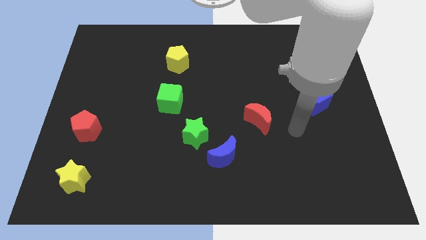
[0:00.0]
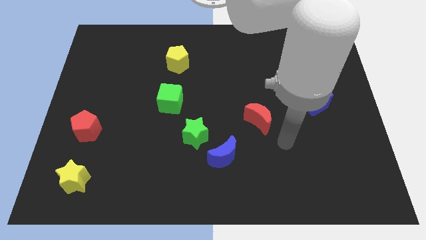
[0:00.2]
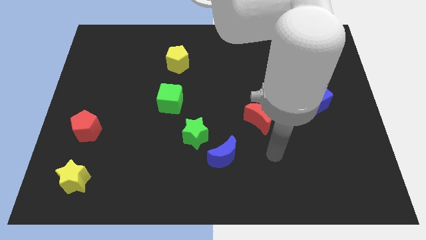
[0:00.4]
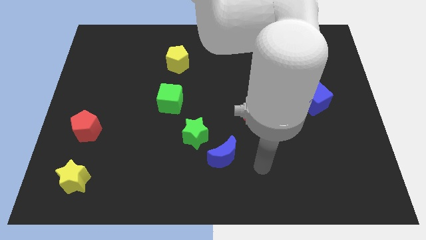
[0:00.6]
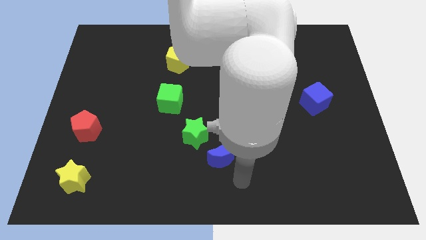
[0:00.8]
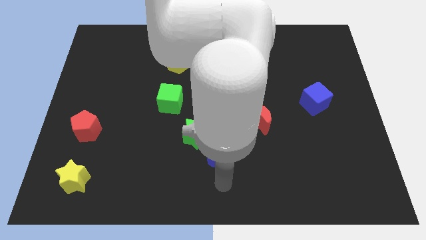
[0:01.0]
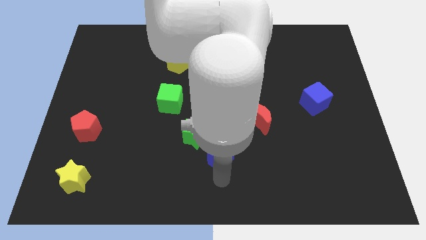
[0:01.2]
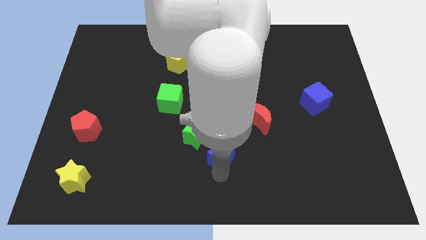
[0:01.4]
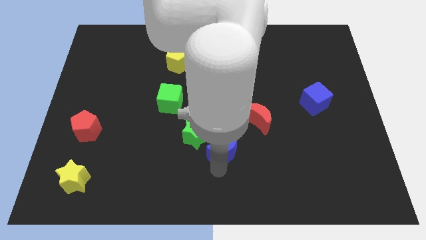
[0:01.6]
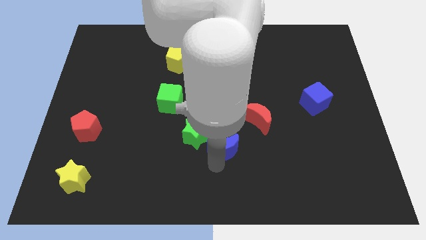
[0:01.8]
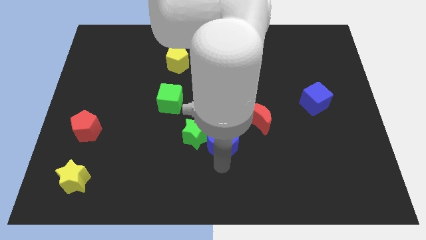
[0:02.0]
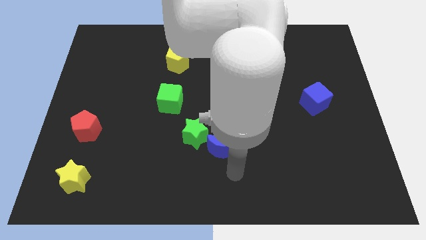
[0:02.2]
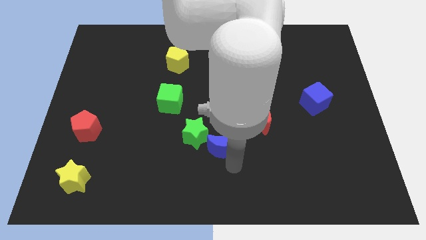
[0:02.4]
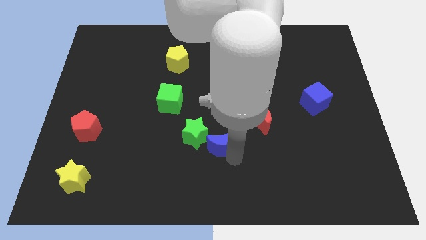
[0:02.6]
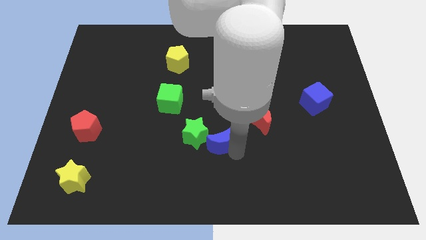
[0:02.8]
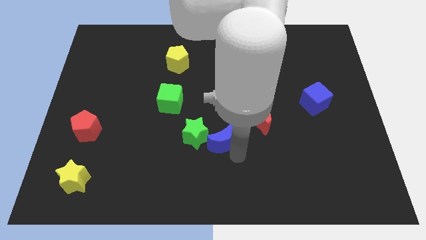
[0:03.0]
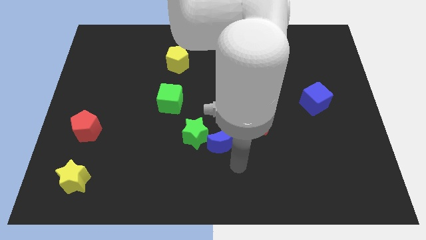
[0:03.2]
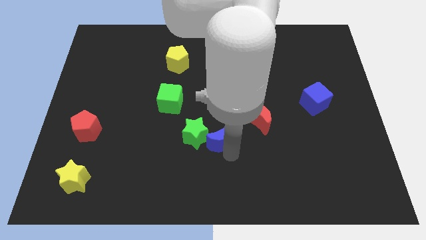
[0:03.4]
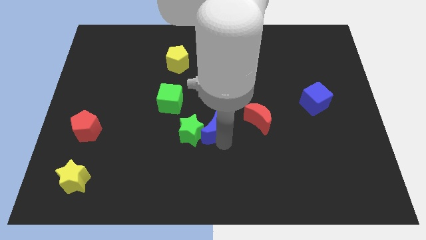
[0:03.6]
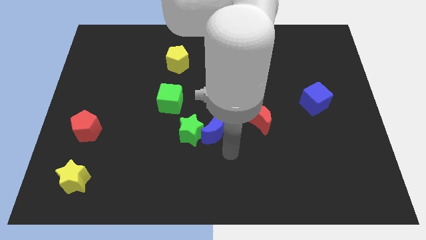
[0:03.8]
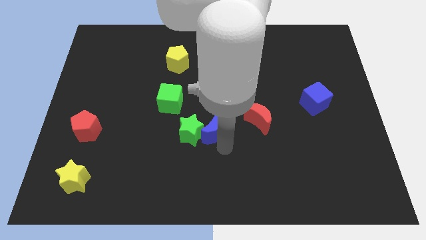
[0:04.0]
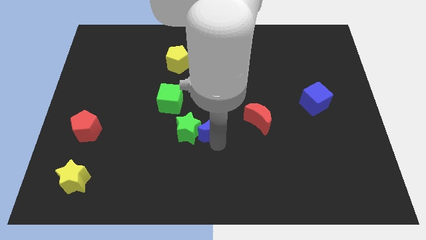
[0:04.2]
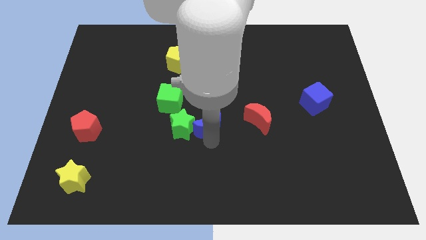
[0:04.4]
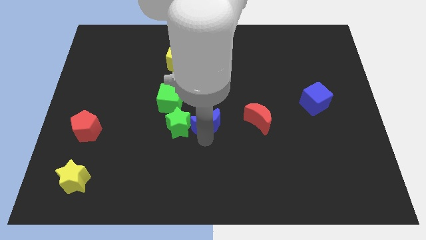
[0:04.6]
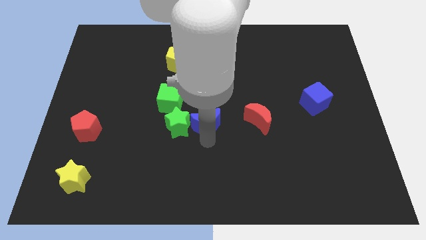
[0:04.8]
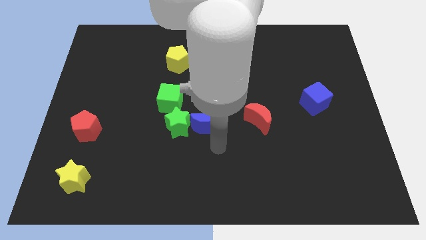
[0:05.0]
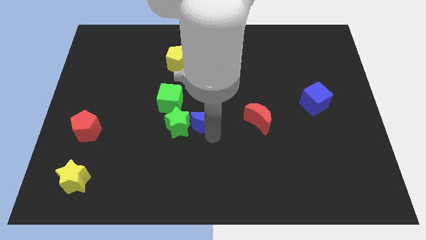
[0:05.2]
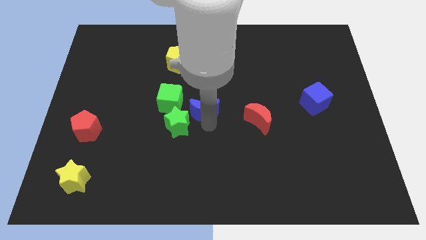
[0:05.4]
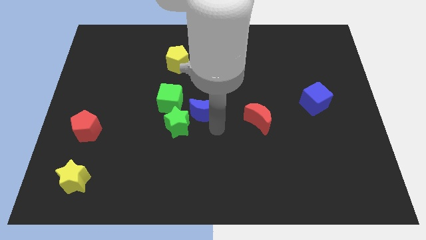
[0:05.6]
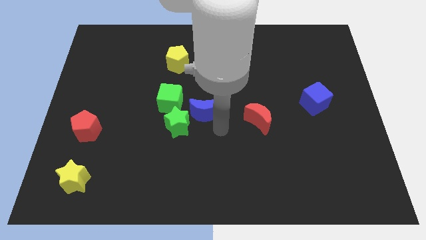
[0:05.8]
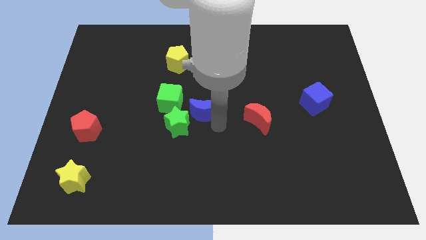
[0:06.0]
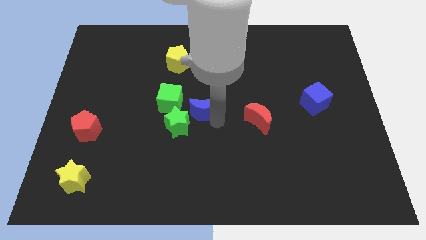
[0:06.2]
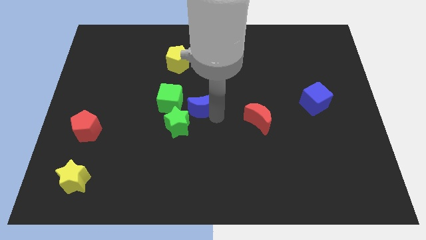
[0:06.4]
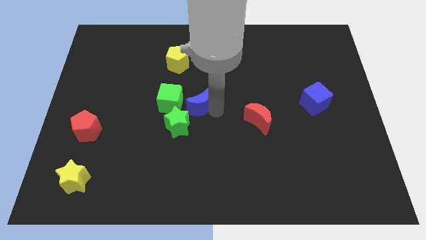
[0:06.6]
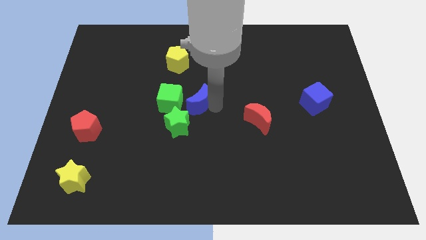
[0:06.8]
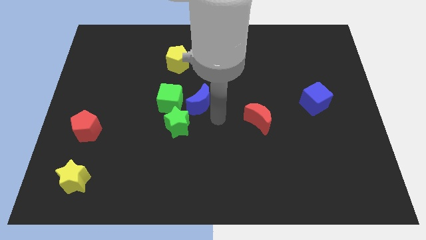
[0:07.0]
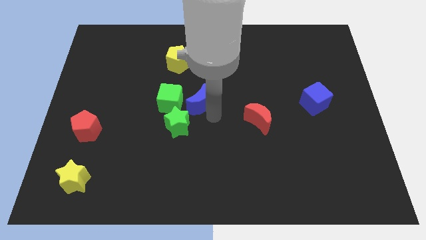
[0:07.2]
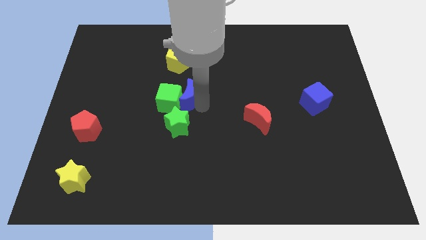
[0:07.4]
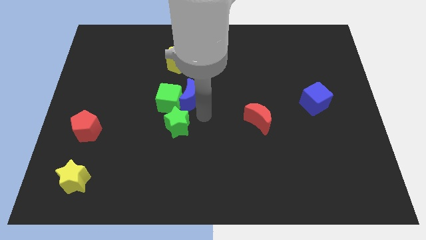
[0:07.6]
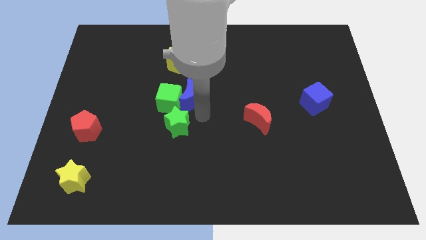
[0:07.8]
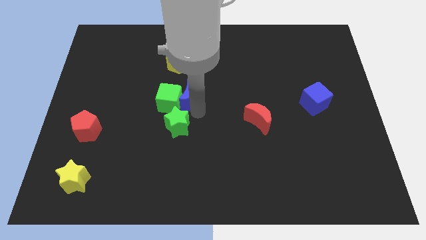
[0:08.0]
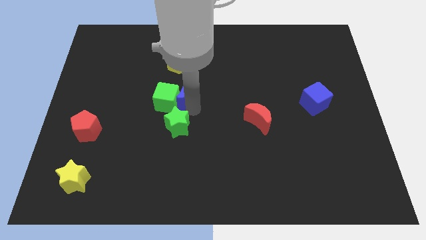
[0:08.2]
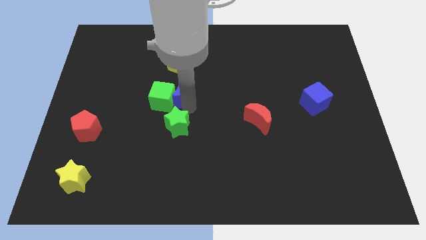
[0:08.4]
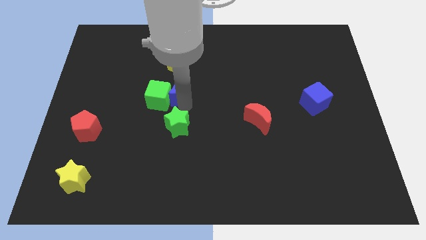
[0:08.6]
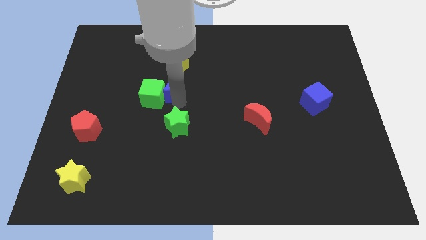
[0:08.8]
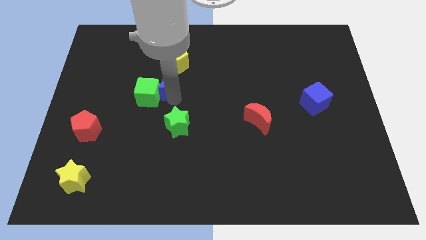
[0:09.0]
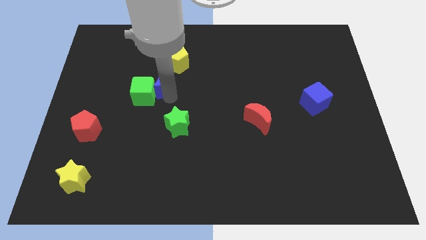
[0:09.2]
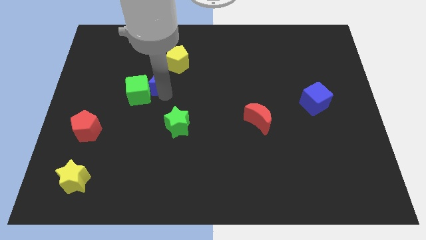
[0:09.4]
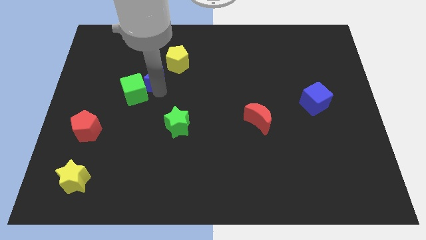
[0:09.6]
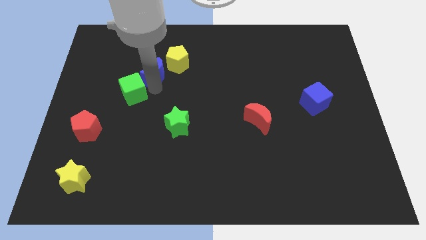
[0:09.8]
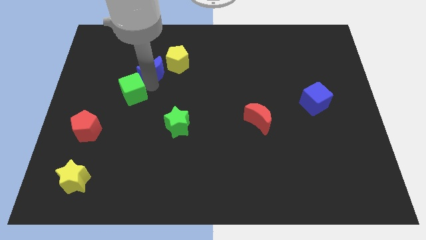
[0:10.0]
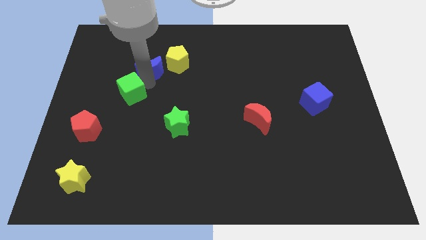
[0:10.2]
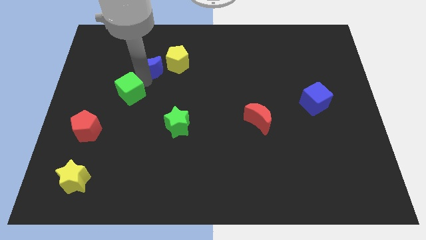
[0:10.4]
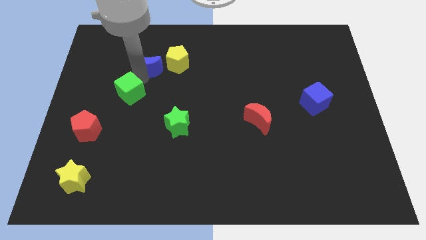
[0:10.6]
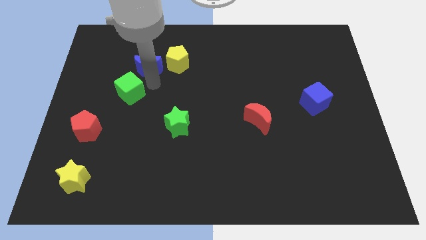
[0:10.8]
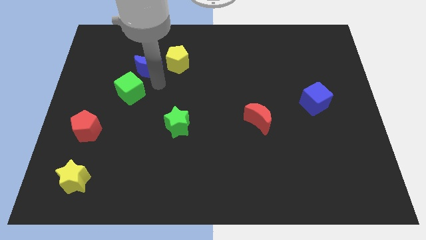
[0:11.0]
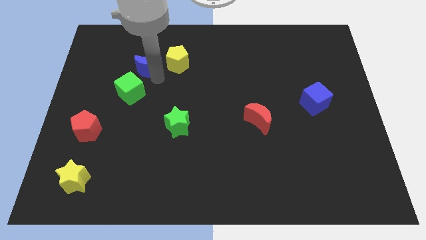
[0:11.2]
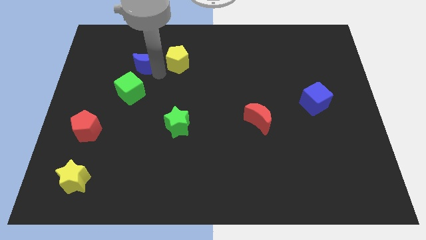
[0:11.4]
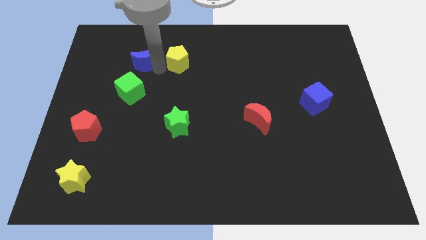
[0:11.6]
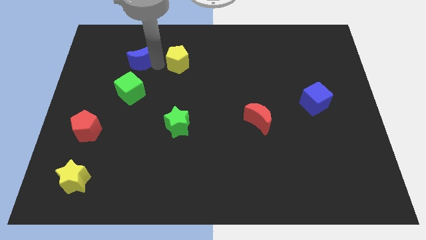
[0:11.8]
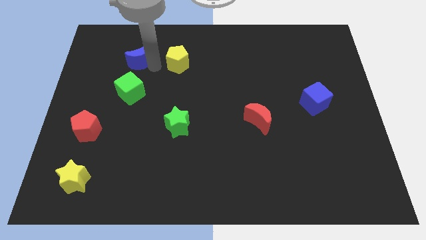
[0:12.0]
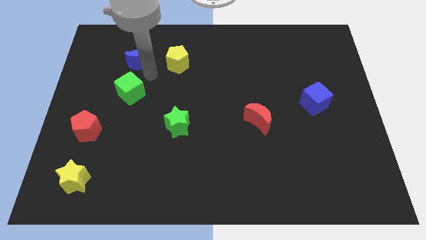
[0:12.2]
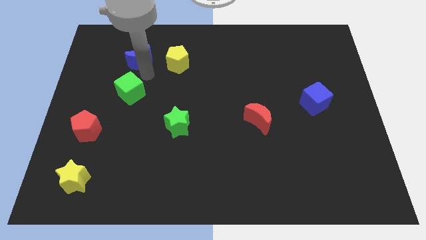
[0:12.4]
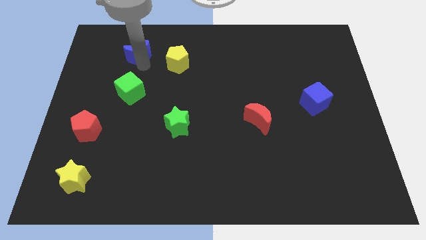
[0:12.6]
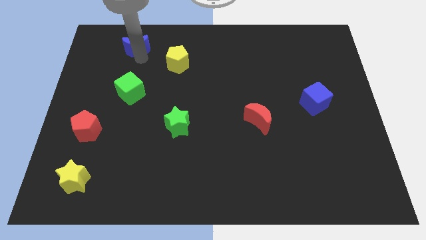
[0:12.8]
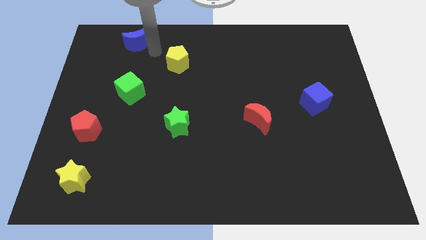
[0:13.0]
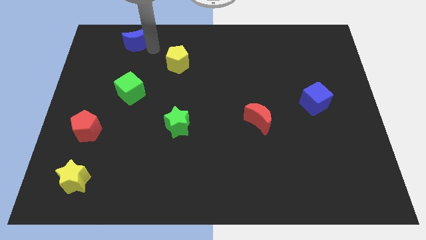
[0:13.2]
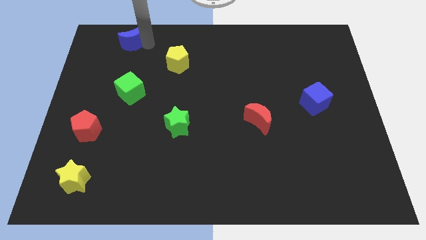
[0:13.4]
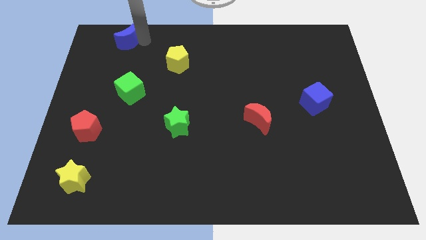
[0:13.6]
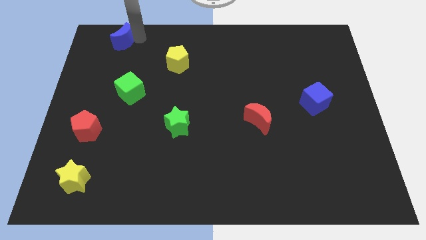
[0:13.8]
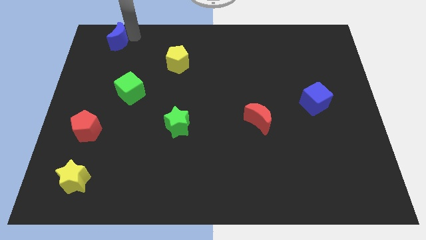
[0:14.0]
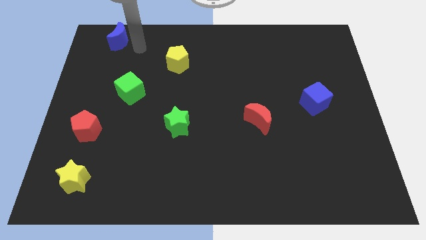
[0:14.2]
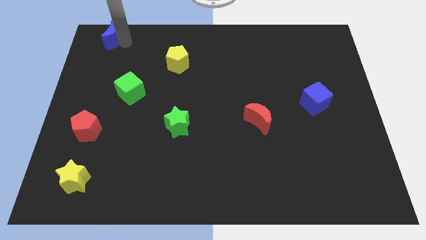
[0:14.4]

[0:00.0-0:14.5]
move the blue moon to the top left corner
